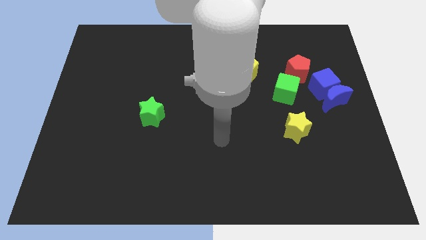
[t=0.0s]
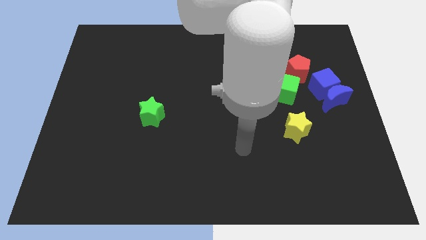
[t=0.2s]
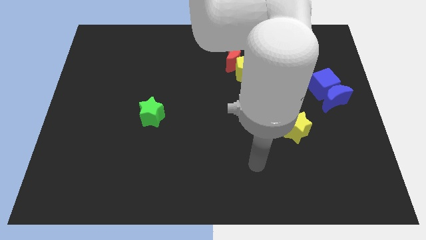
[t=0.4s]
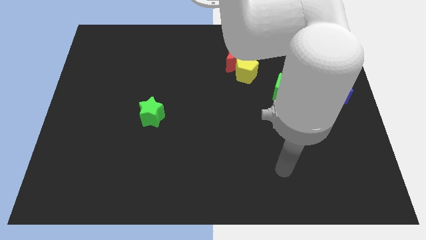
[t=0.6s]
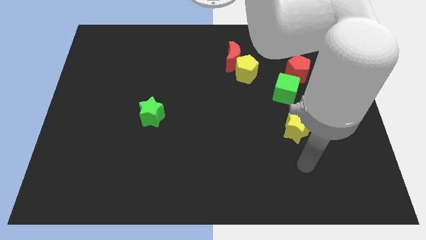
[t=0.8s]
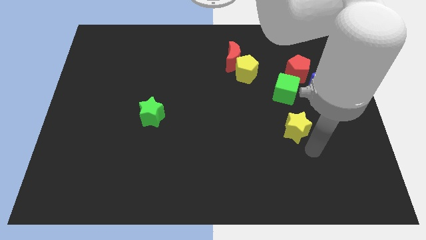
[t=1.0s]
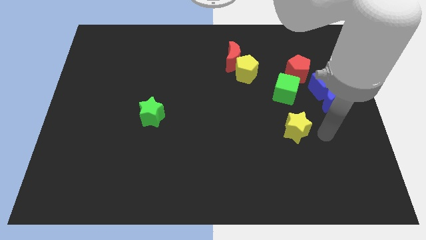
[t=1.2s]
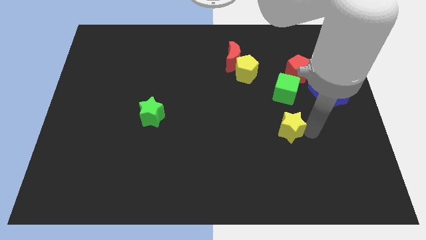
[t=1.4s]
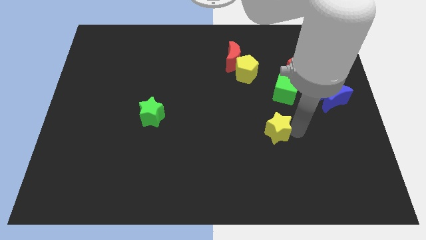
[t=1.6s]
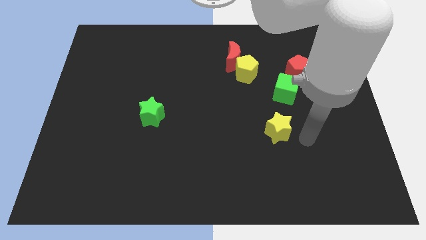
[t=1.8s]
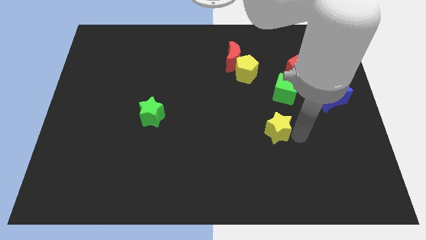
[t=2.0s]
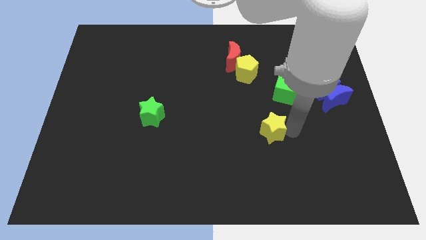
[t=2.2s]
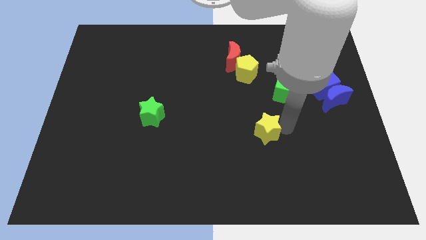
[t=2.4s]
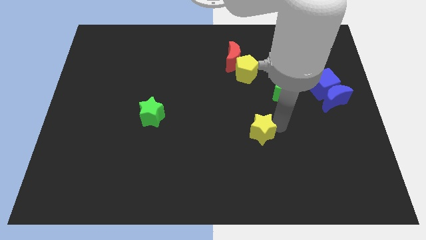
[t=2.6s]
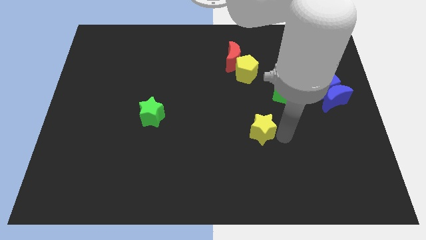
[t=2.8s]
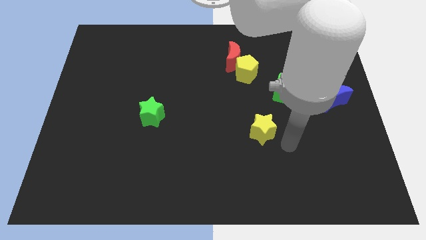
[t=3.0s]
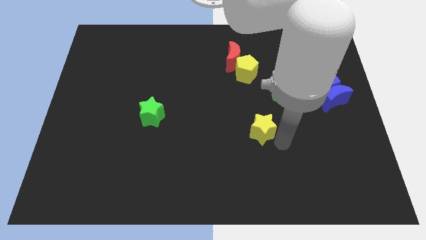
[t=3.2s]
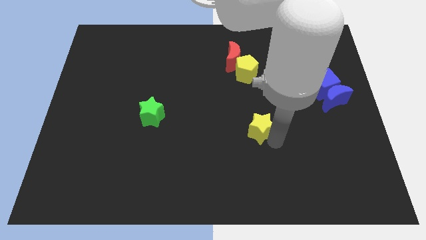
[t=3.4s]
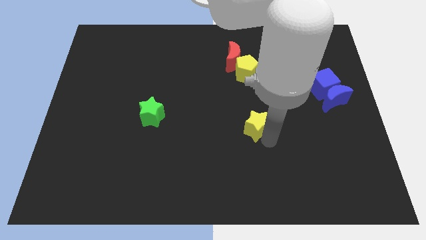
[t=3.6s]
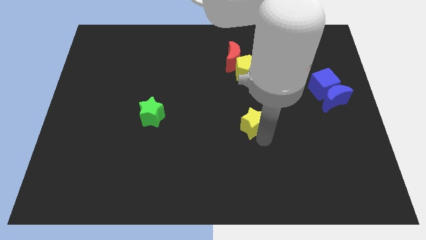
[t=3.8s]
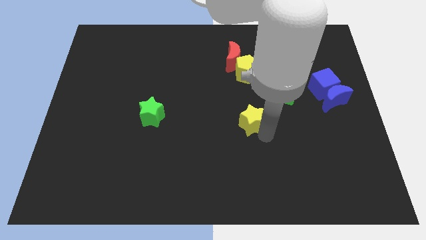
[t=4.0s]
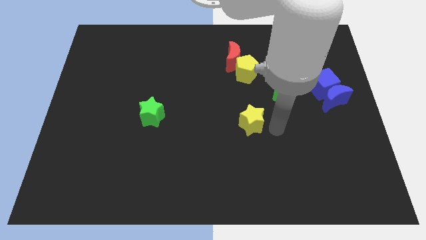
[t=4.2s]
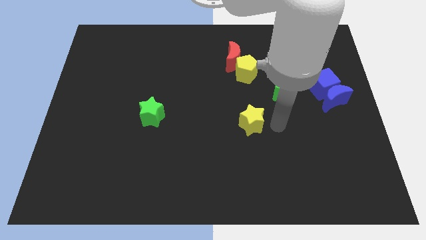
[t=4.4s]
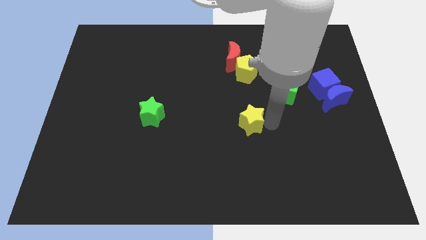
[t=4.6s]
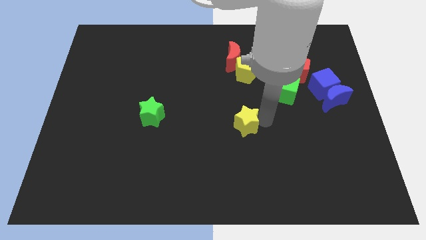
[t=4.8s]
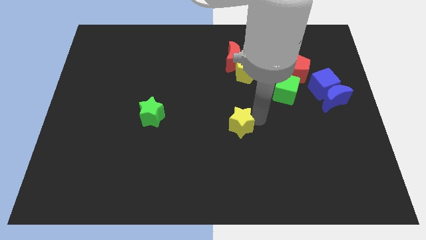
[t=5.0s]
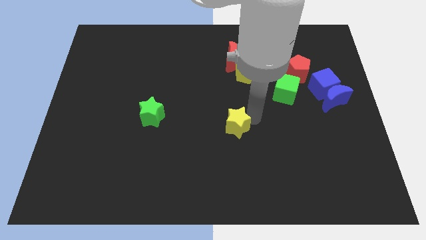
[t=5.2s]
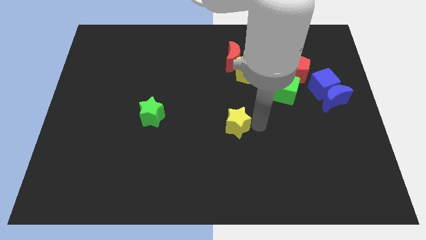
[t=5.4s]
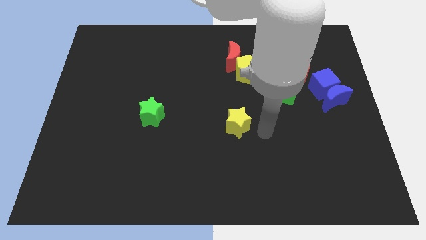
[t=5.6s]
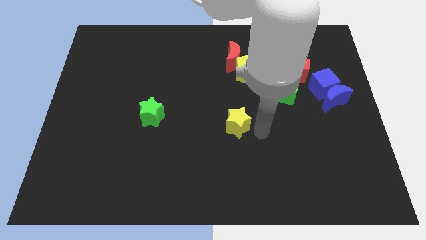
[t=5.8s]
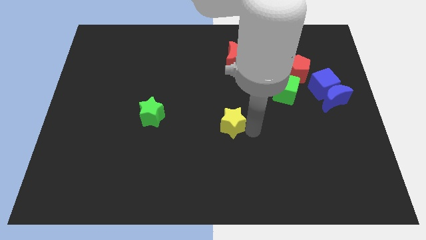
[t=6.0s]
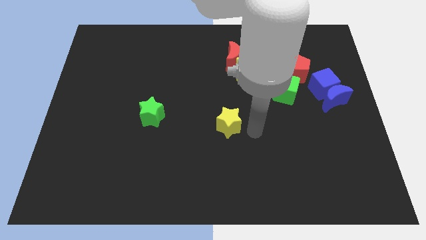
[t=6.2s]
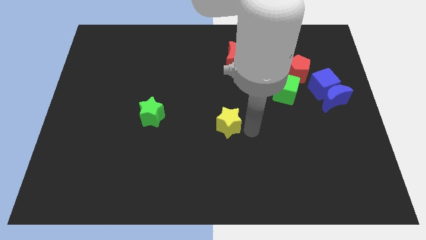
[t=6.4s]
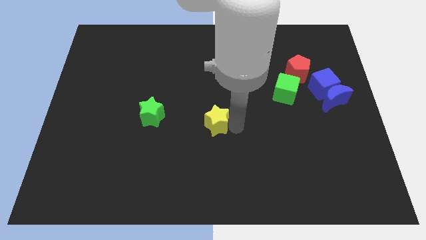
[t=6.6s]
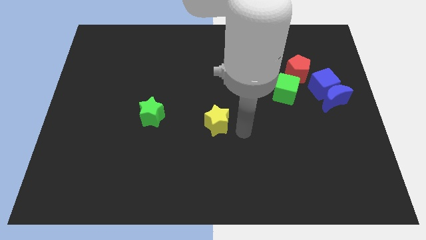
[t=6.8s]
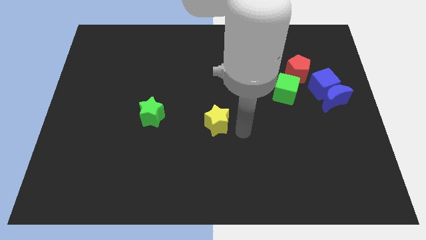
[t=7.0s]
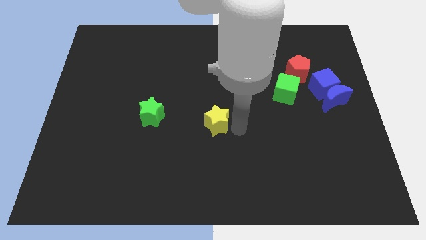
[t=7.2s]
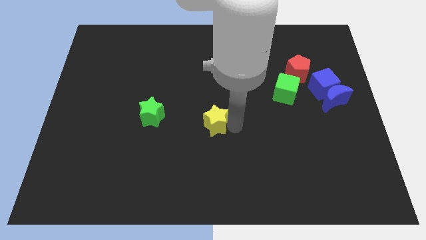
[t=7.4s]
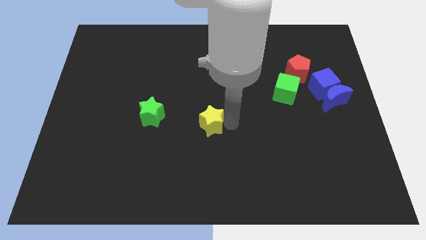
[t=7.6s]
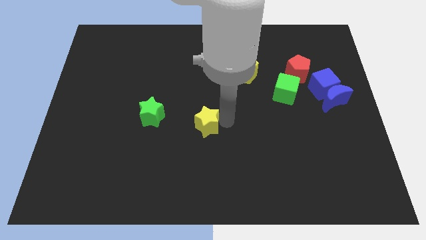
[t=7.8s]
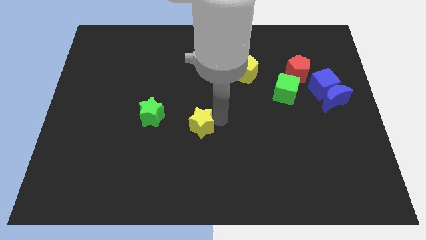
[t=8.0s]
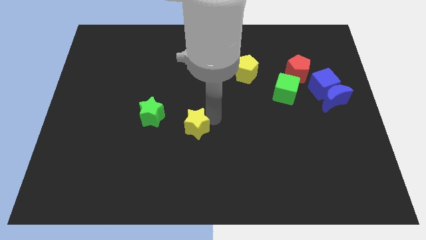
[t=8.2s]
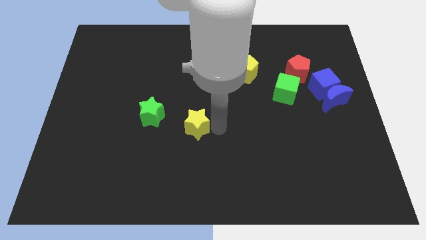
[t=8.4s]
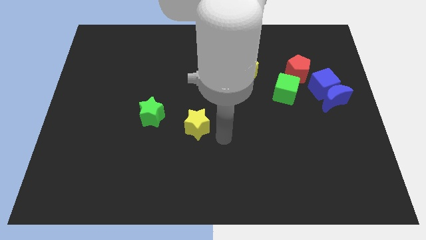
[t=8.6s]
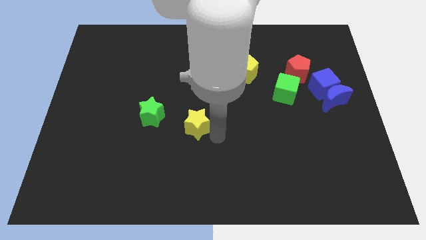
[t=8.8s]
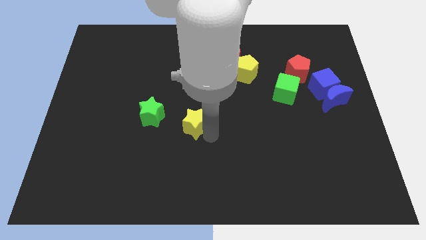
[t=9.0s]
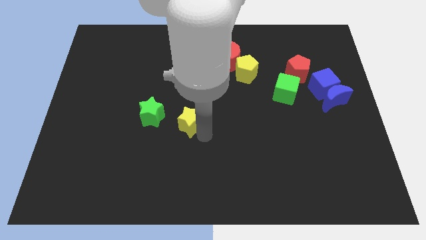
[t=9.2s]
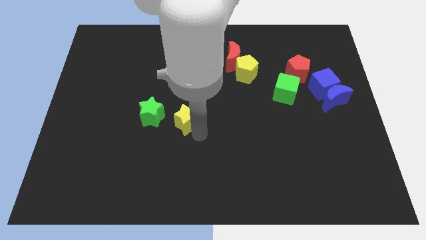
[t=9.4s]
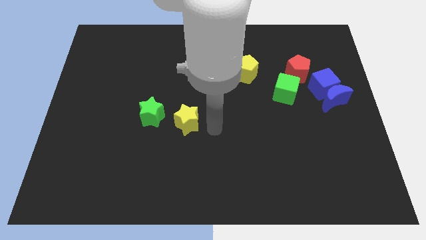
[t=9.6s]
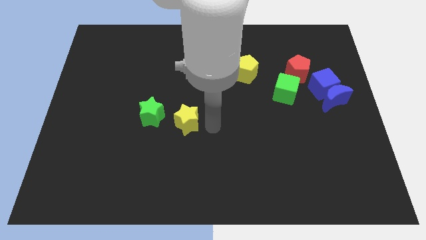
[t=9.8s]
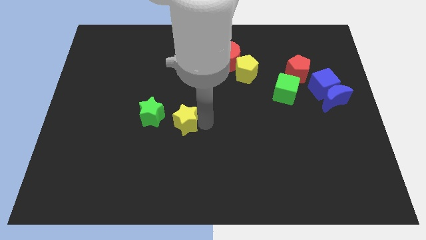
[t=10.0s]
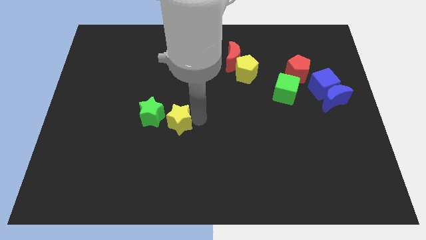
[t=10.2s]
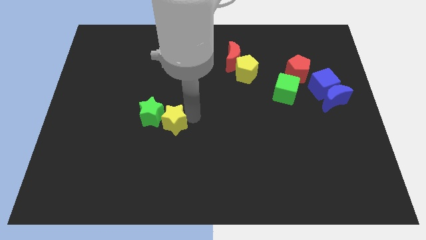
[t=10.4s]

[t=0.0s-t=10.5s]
push the yellow star towards the green star

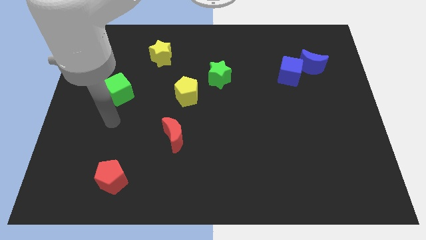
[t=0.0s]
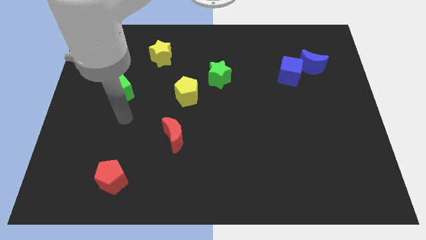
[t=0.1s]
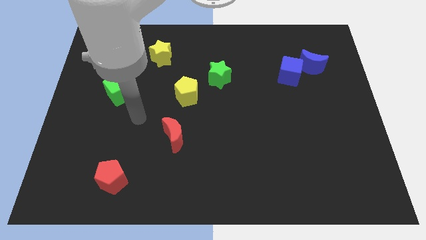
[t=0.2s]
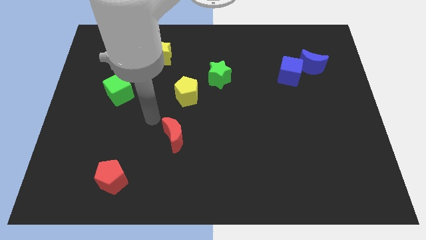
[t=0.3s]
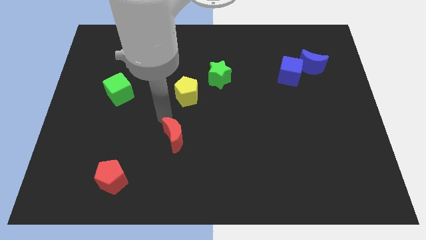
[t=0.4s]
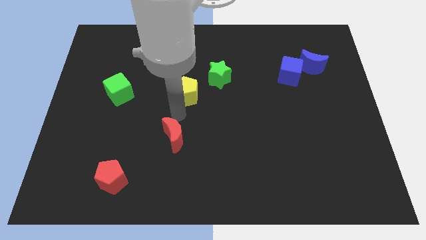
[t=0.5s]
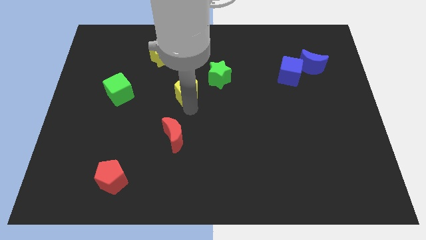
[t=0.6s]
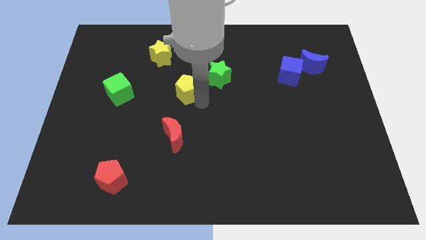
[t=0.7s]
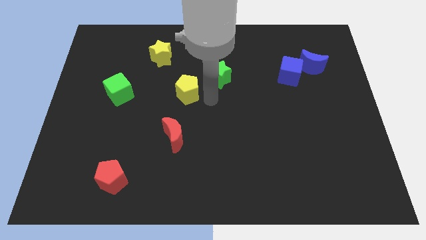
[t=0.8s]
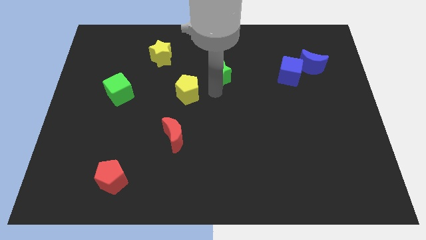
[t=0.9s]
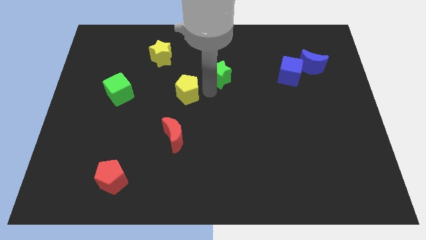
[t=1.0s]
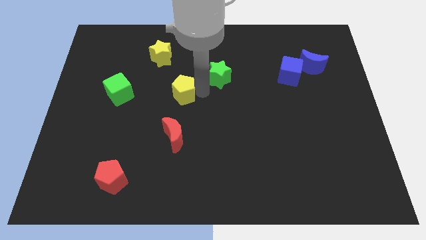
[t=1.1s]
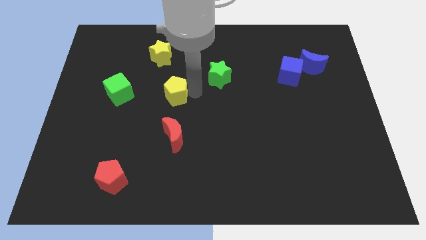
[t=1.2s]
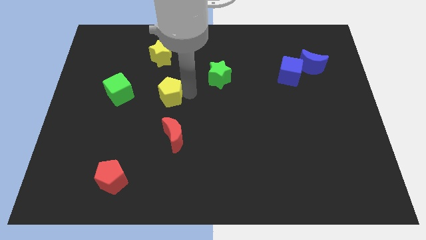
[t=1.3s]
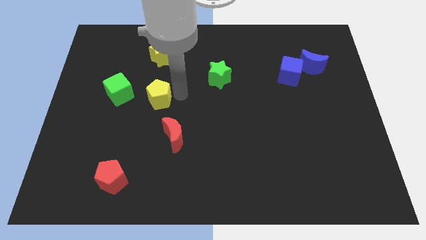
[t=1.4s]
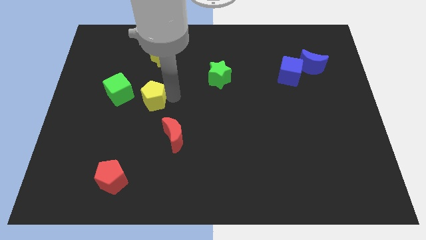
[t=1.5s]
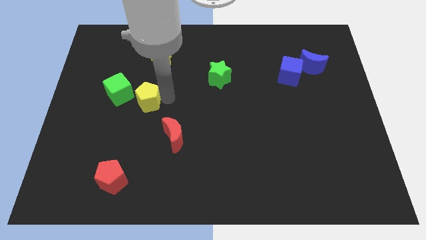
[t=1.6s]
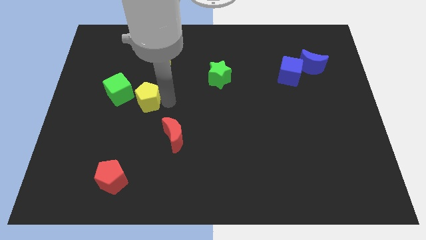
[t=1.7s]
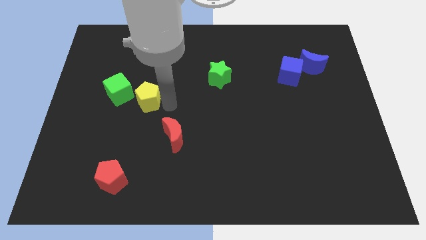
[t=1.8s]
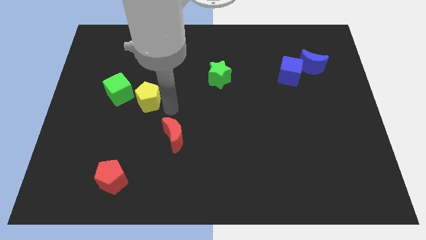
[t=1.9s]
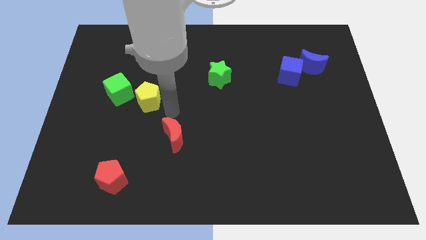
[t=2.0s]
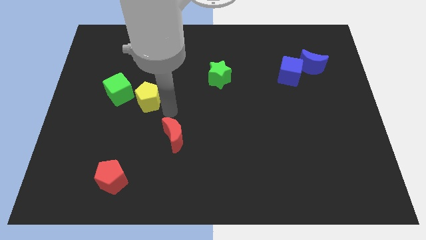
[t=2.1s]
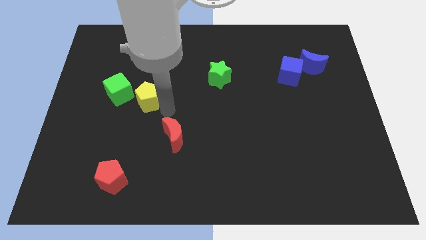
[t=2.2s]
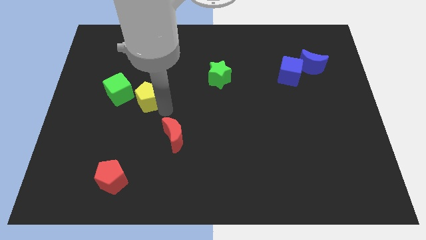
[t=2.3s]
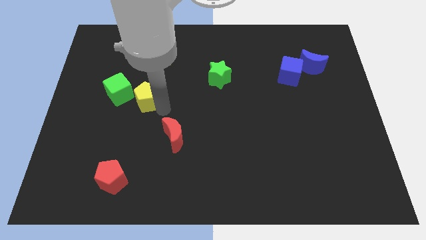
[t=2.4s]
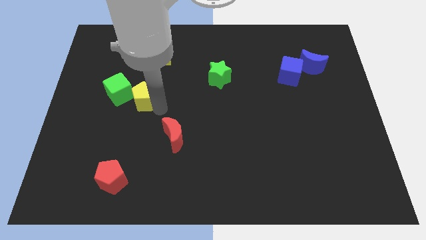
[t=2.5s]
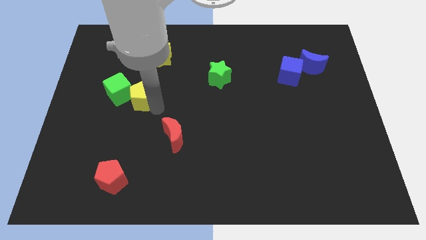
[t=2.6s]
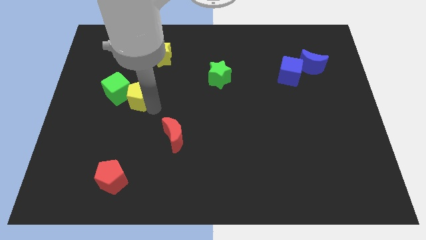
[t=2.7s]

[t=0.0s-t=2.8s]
slide the yellow pentagon next to the green cube
